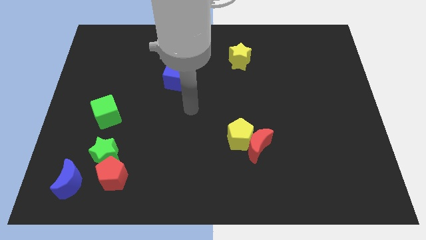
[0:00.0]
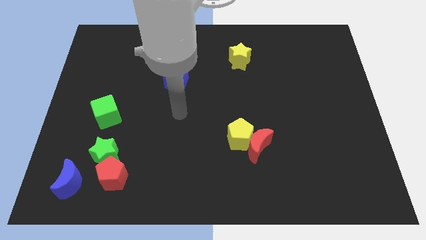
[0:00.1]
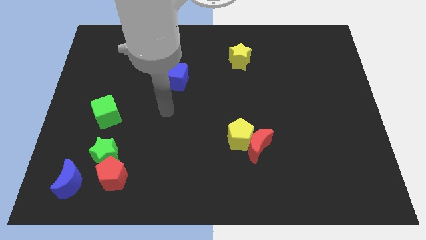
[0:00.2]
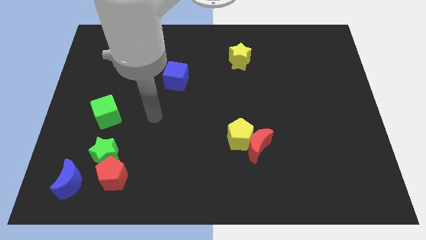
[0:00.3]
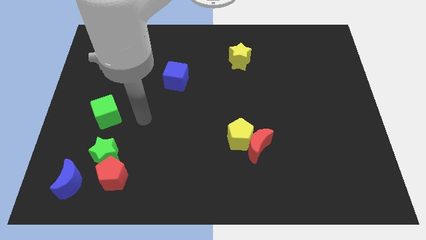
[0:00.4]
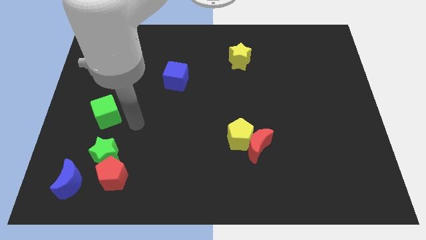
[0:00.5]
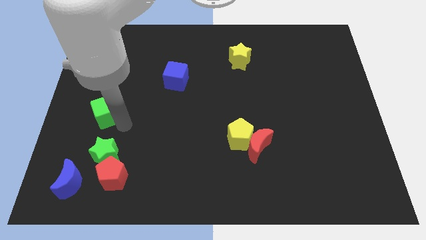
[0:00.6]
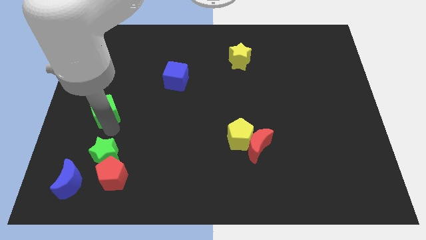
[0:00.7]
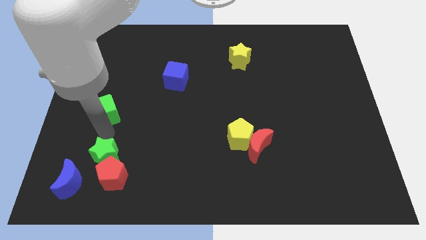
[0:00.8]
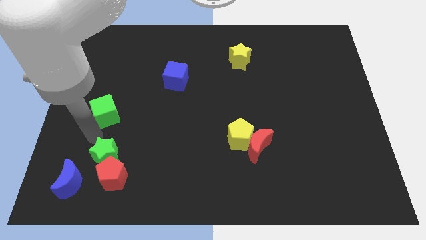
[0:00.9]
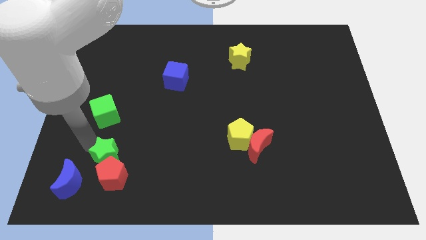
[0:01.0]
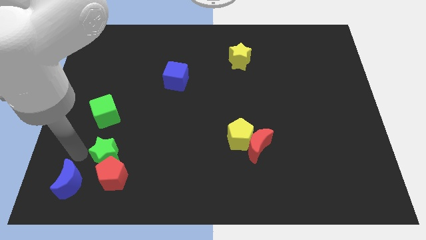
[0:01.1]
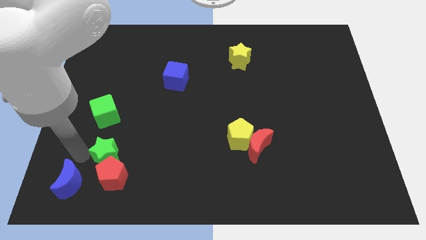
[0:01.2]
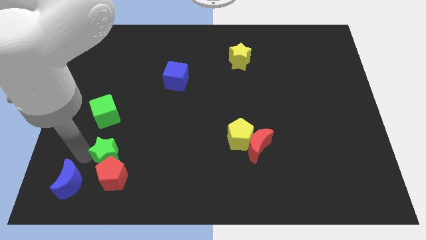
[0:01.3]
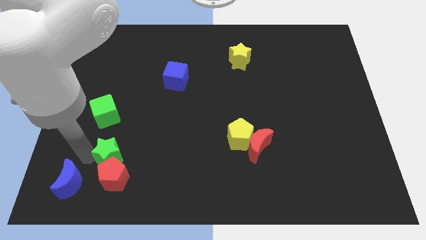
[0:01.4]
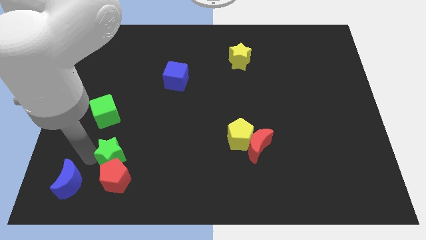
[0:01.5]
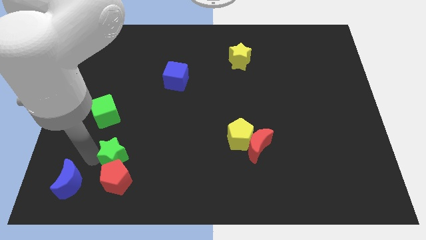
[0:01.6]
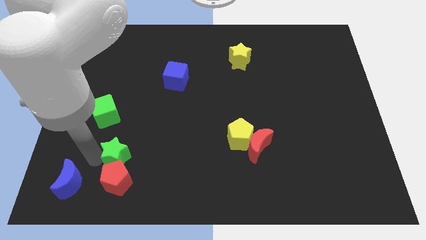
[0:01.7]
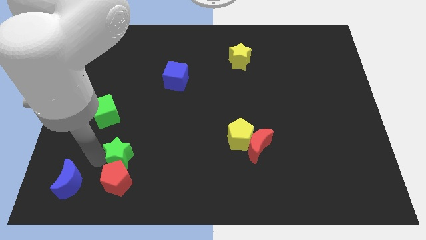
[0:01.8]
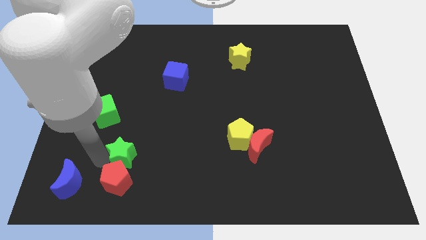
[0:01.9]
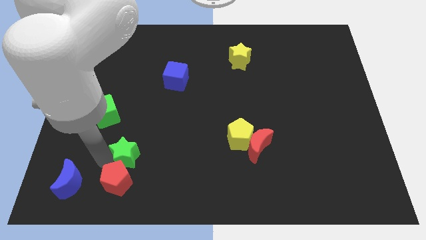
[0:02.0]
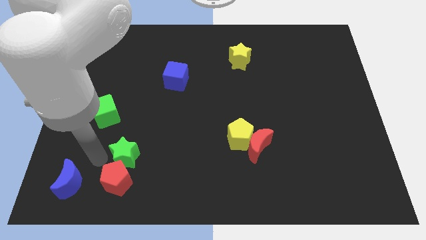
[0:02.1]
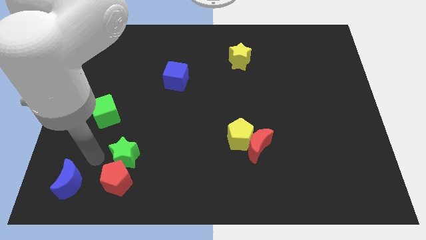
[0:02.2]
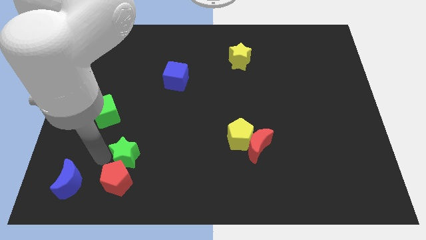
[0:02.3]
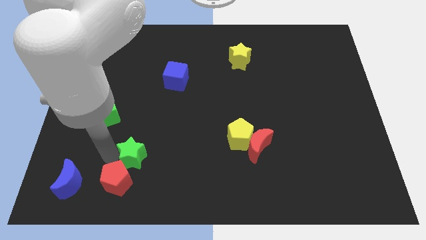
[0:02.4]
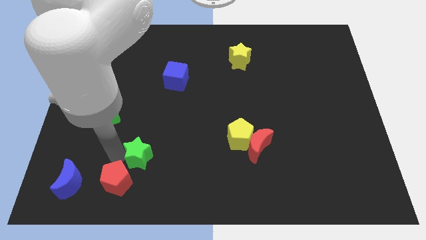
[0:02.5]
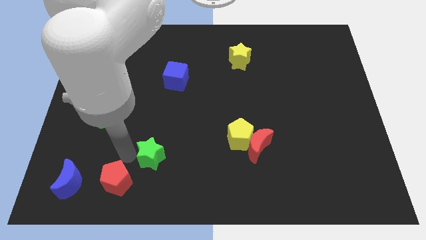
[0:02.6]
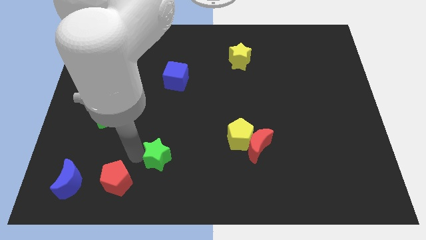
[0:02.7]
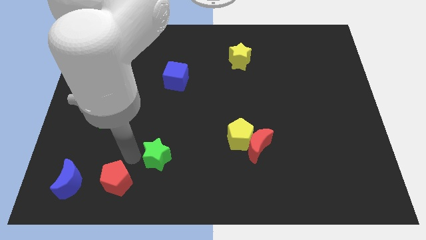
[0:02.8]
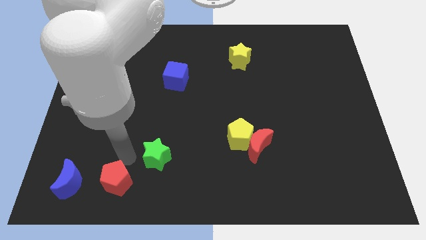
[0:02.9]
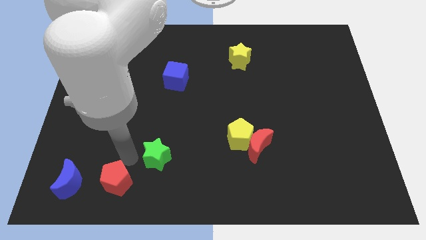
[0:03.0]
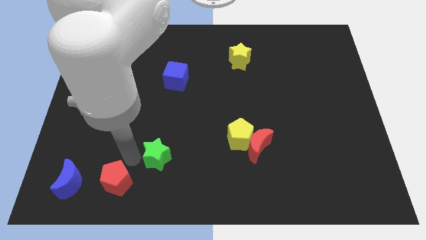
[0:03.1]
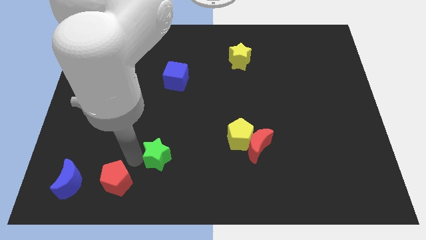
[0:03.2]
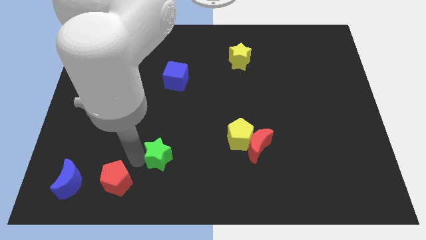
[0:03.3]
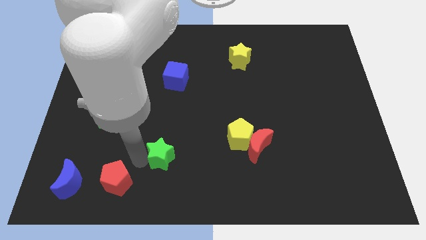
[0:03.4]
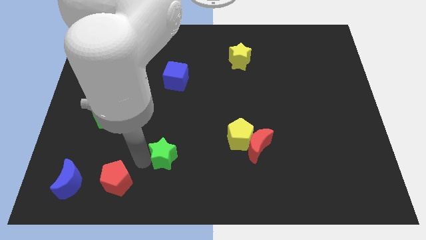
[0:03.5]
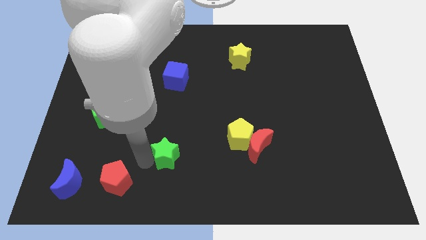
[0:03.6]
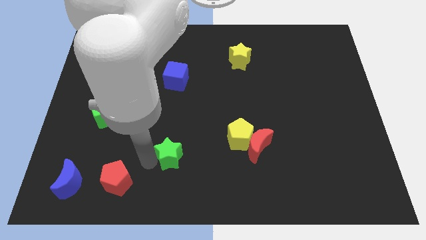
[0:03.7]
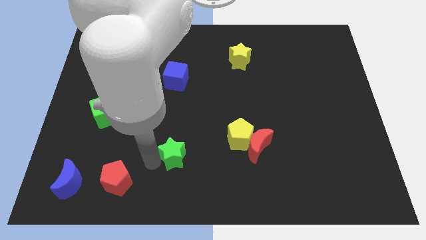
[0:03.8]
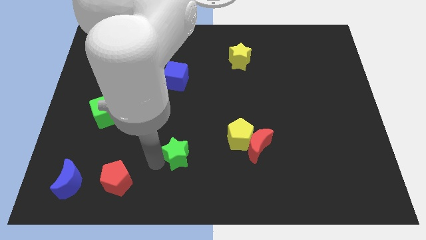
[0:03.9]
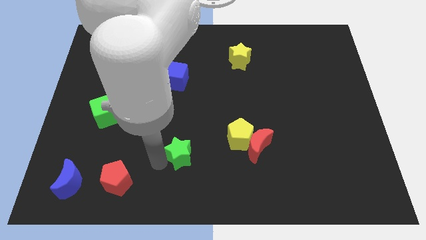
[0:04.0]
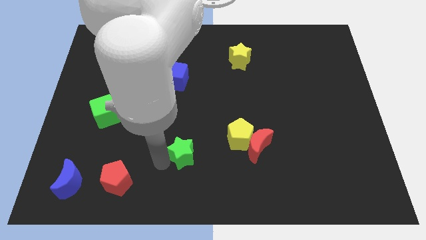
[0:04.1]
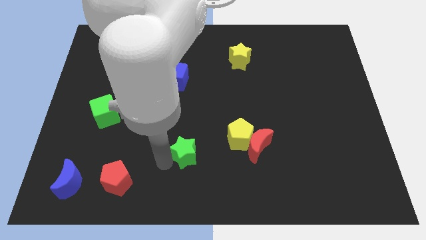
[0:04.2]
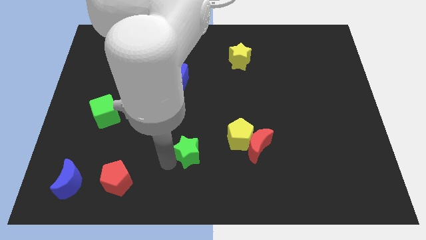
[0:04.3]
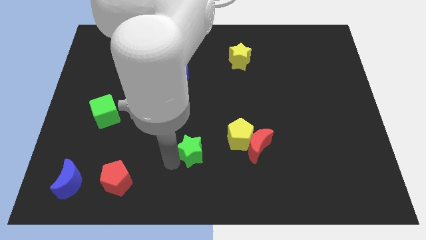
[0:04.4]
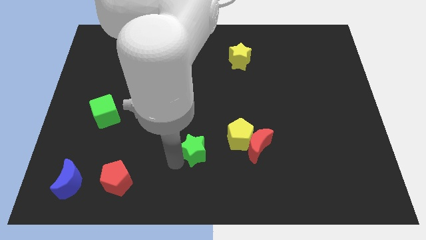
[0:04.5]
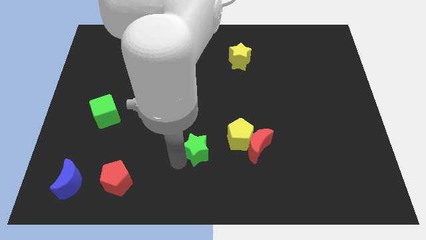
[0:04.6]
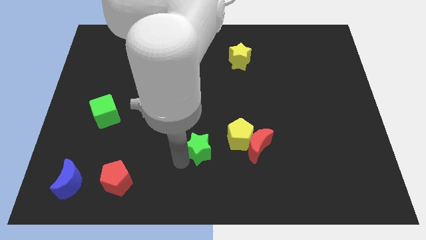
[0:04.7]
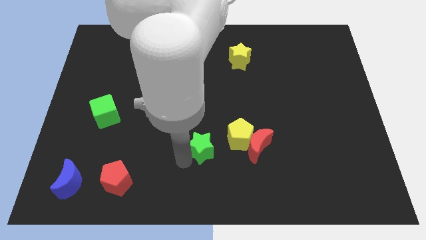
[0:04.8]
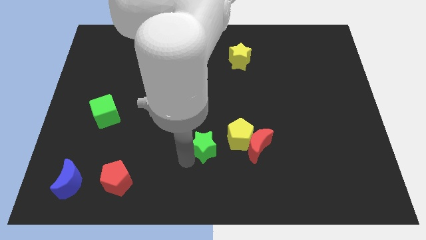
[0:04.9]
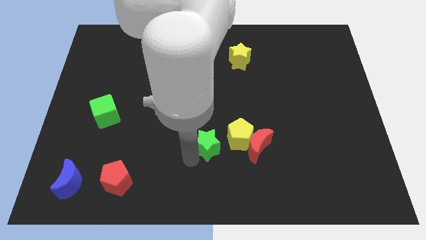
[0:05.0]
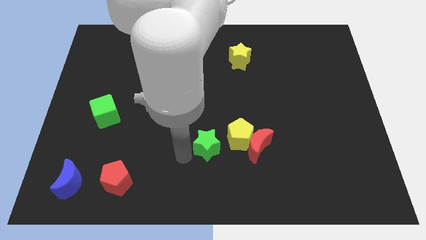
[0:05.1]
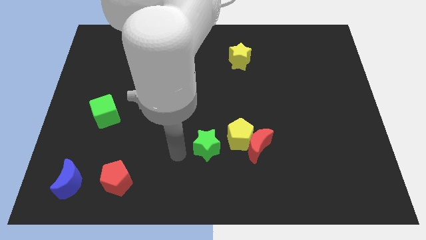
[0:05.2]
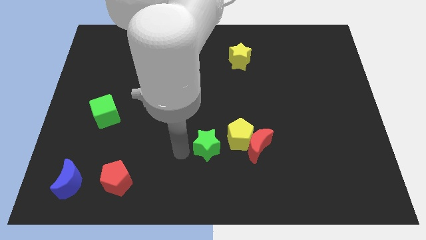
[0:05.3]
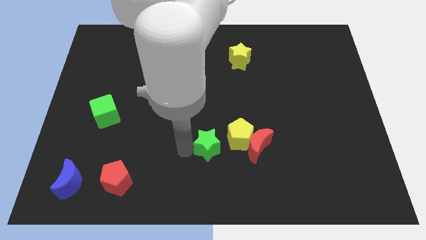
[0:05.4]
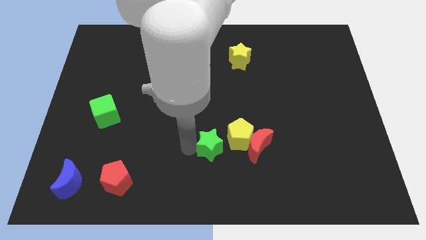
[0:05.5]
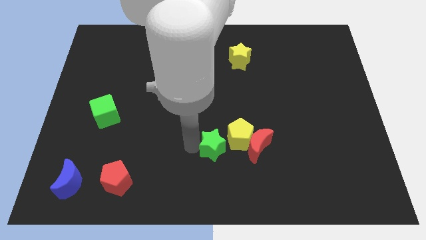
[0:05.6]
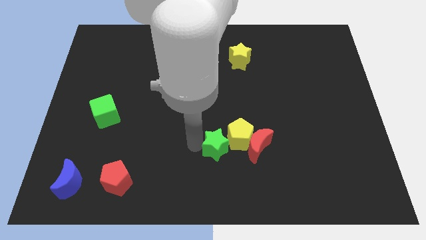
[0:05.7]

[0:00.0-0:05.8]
push the green star next to the yellow pentagon

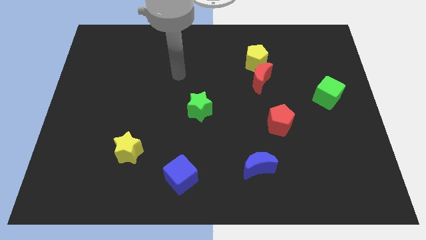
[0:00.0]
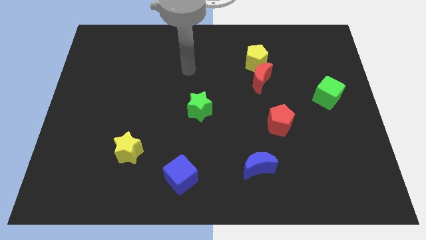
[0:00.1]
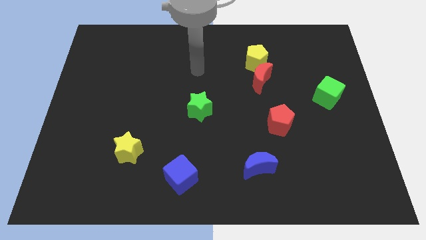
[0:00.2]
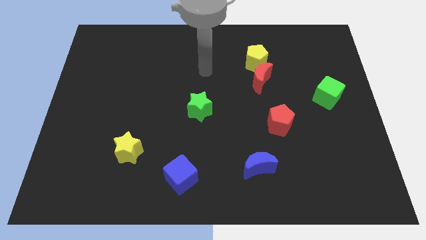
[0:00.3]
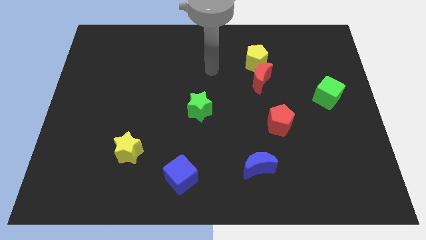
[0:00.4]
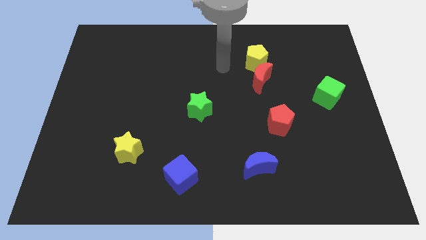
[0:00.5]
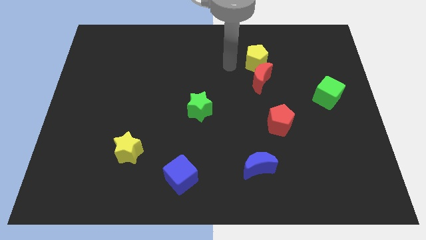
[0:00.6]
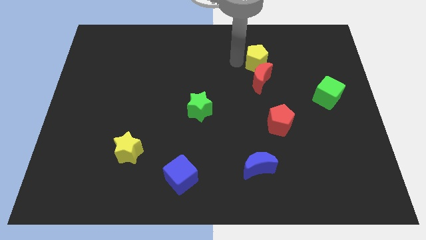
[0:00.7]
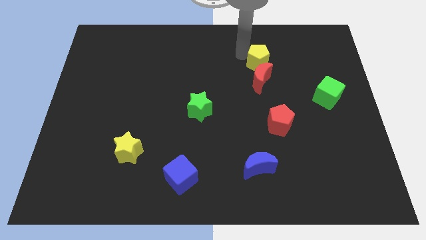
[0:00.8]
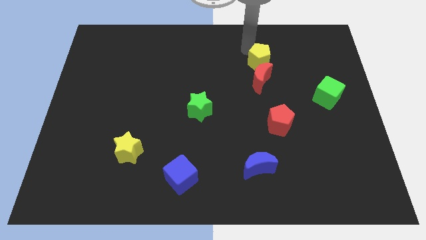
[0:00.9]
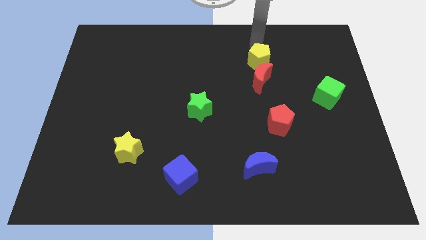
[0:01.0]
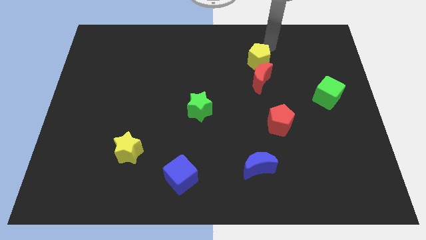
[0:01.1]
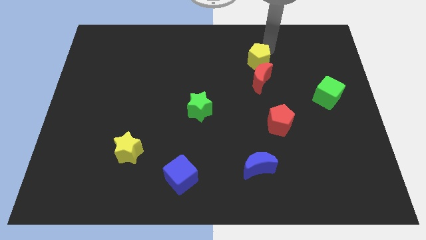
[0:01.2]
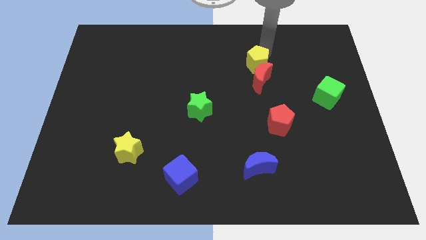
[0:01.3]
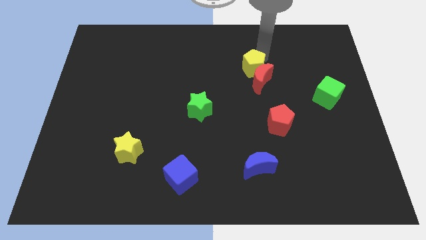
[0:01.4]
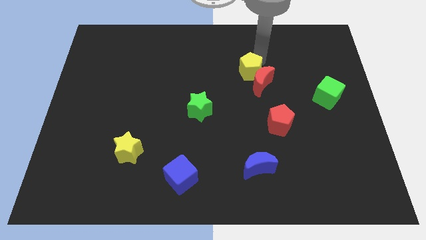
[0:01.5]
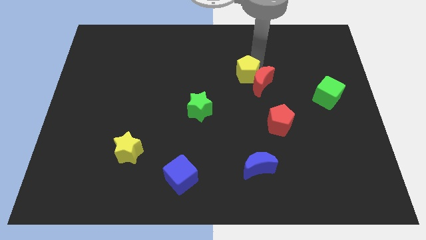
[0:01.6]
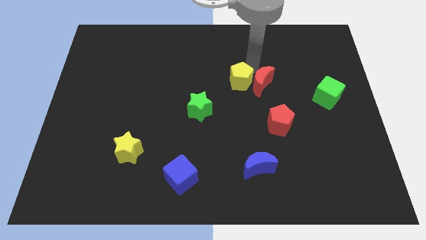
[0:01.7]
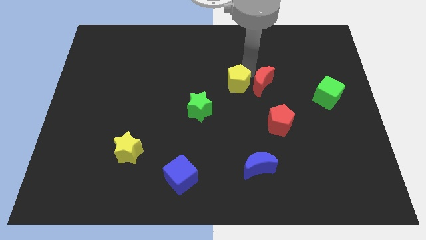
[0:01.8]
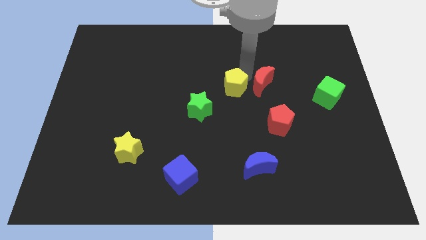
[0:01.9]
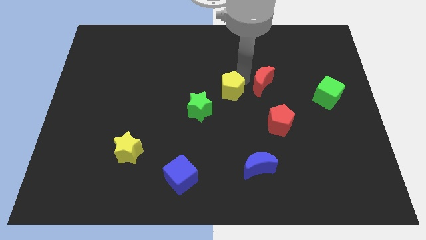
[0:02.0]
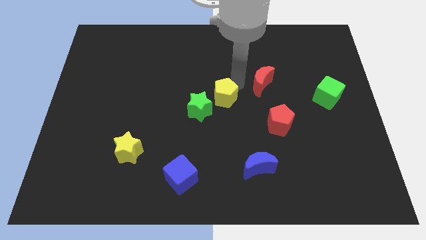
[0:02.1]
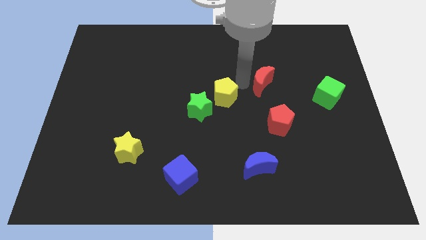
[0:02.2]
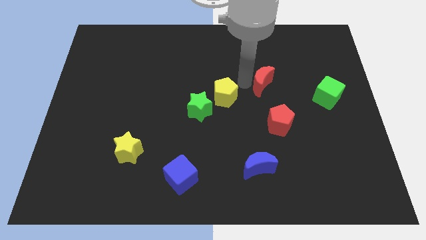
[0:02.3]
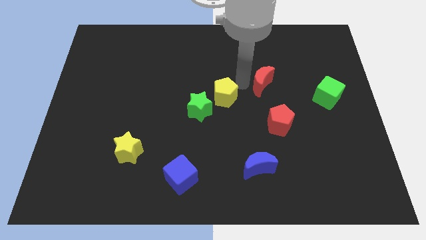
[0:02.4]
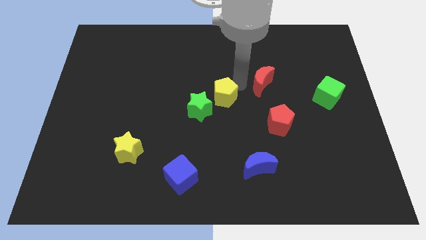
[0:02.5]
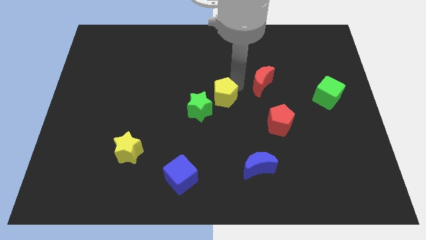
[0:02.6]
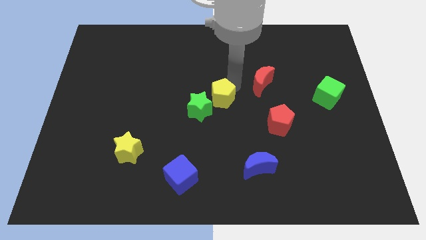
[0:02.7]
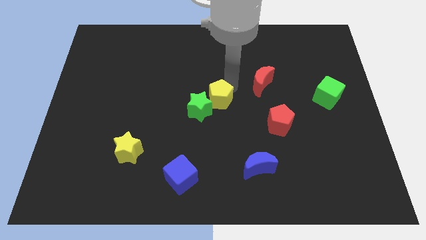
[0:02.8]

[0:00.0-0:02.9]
push the yellow pentagon close to the green star
